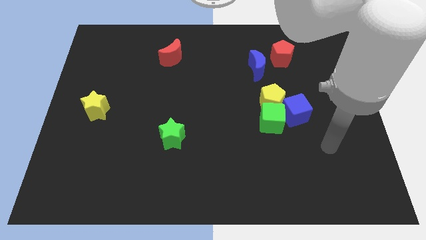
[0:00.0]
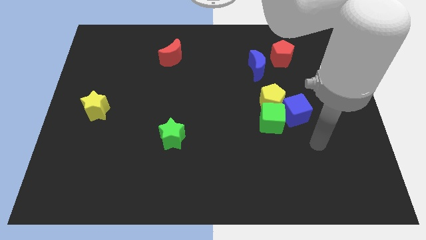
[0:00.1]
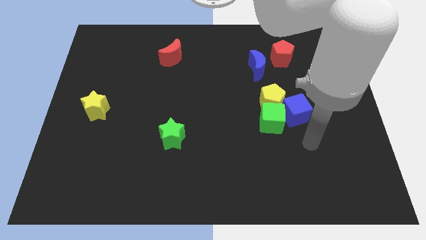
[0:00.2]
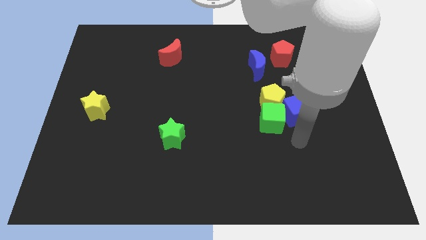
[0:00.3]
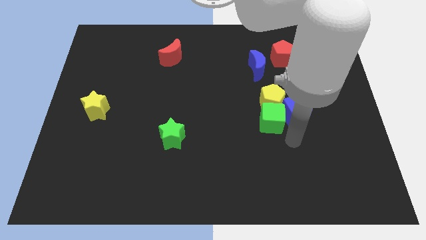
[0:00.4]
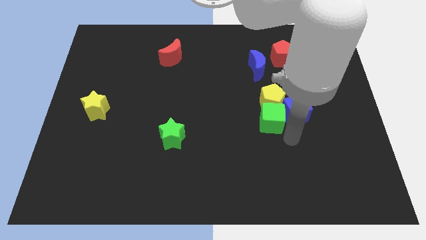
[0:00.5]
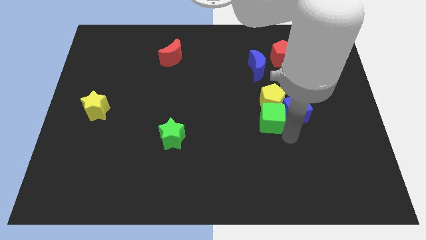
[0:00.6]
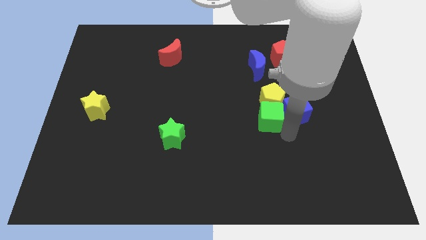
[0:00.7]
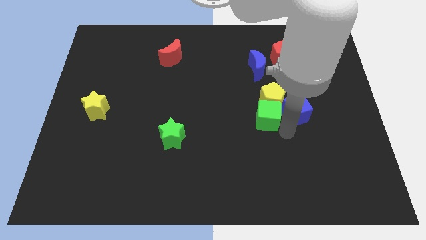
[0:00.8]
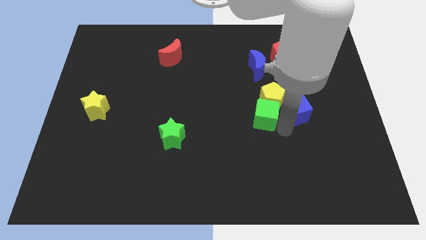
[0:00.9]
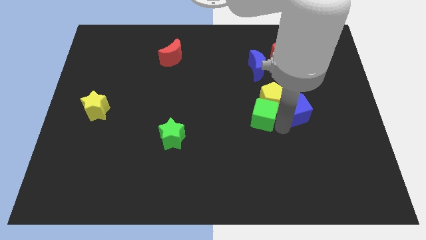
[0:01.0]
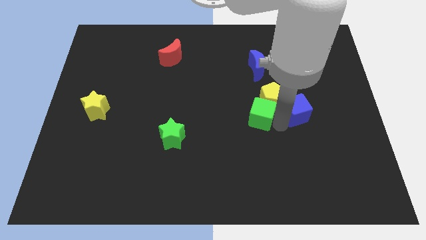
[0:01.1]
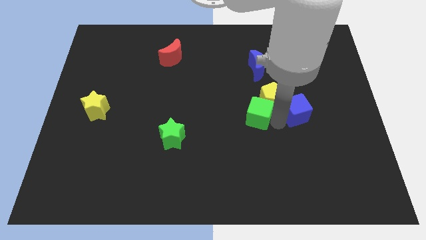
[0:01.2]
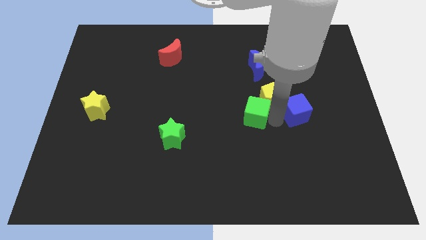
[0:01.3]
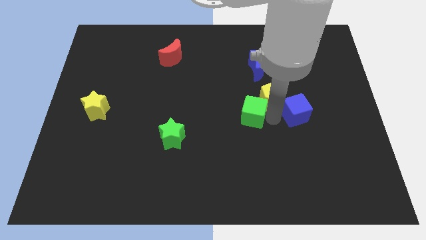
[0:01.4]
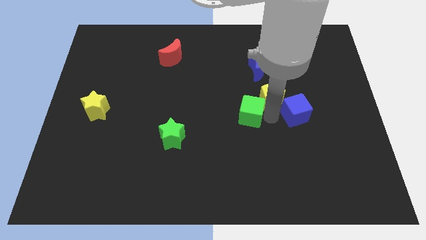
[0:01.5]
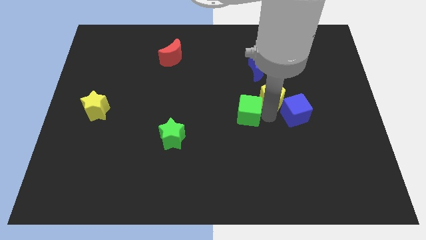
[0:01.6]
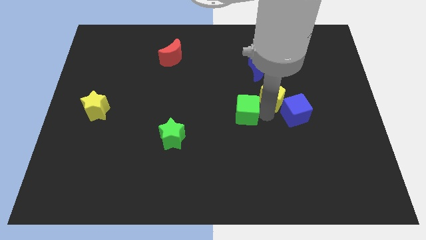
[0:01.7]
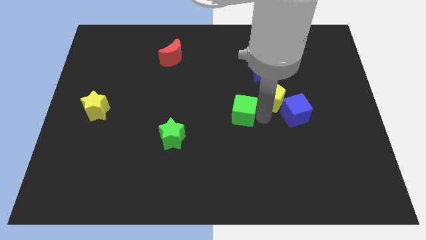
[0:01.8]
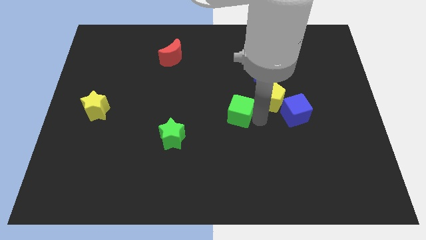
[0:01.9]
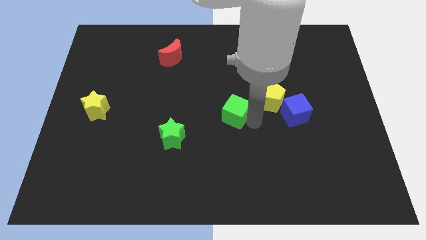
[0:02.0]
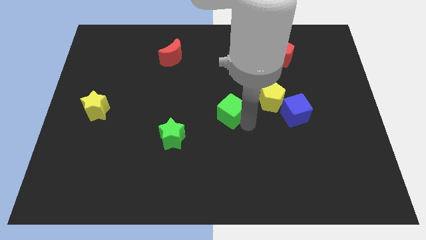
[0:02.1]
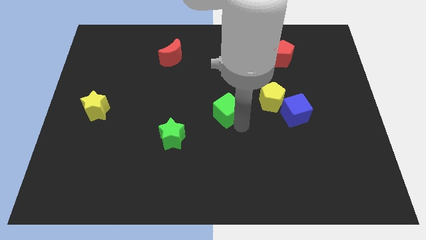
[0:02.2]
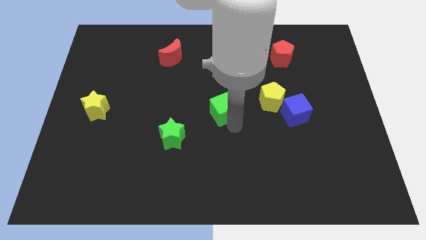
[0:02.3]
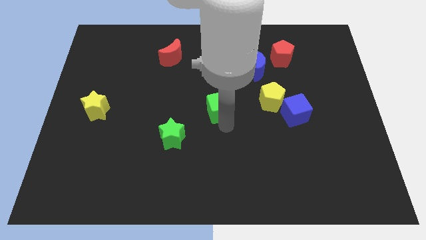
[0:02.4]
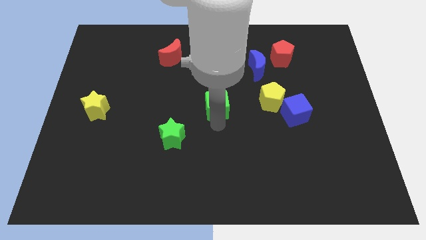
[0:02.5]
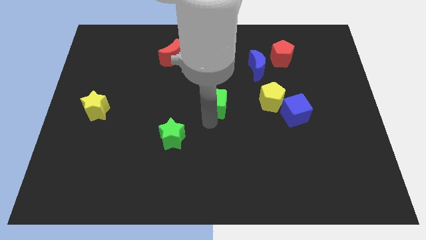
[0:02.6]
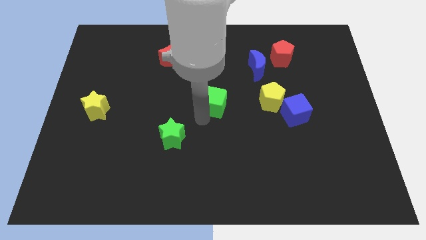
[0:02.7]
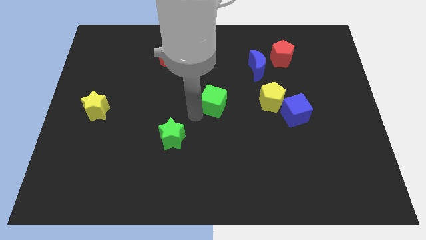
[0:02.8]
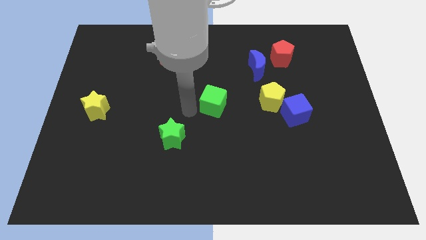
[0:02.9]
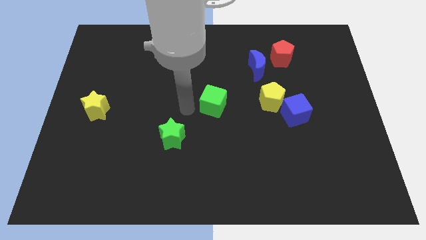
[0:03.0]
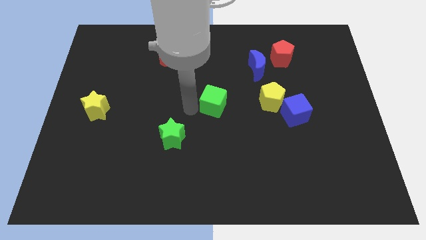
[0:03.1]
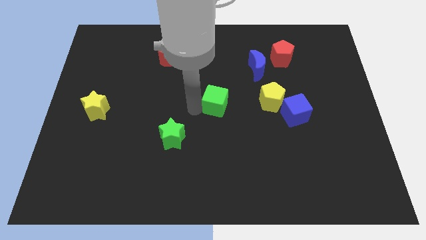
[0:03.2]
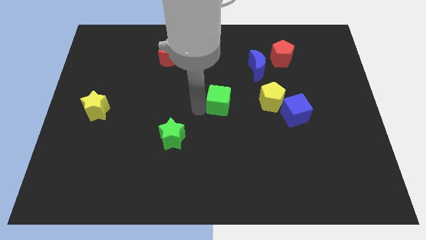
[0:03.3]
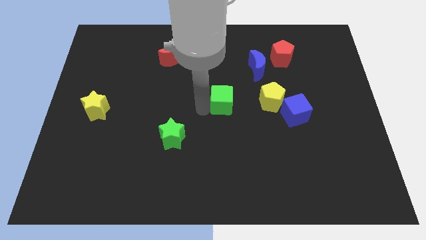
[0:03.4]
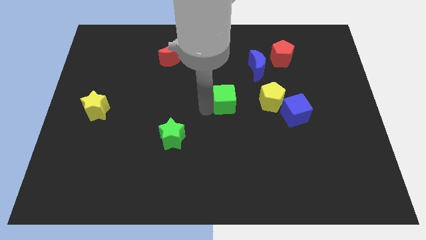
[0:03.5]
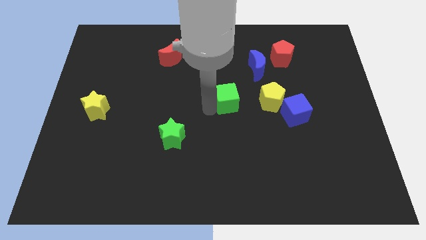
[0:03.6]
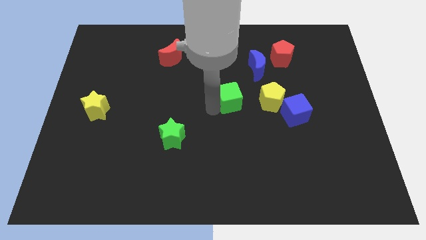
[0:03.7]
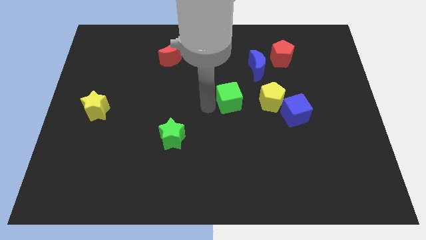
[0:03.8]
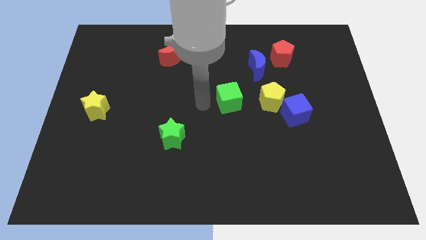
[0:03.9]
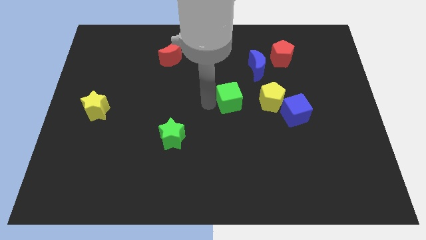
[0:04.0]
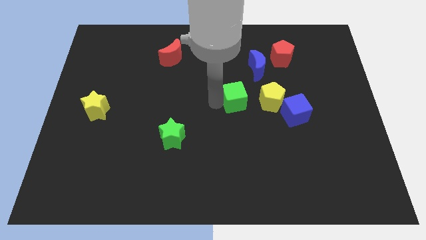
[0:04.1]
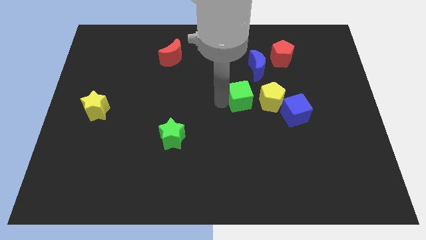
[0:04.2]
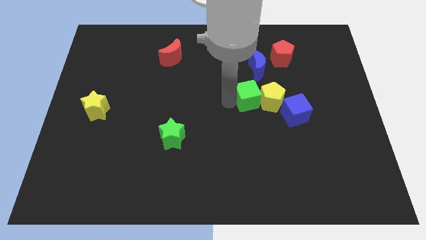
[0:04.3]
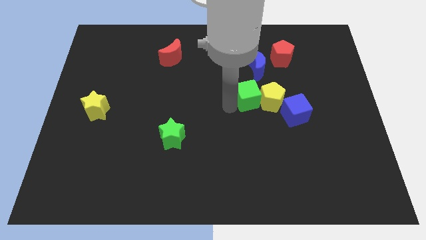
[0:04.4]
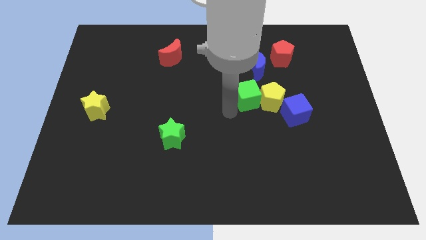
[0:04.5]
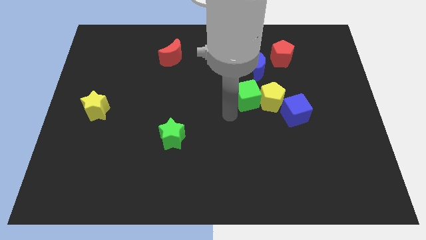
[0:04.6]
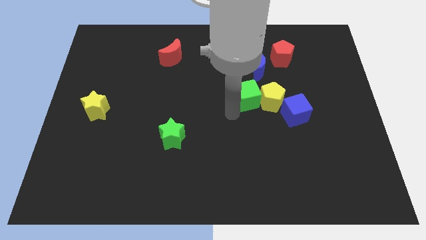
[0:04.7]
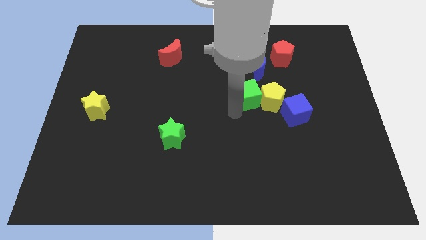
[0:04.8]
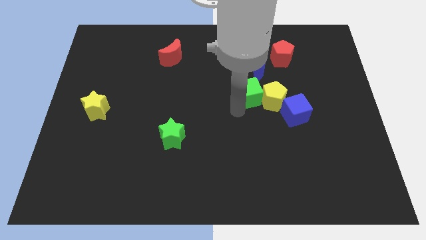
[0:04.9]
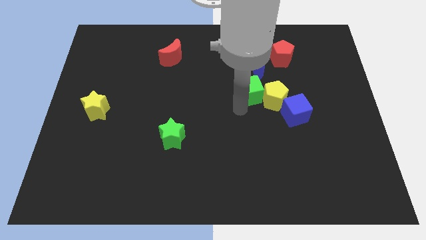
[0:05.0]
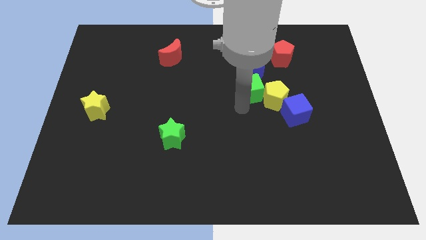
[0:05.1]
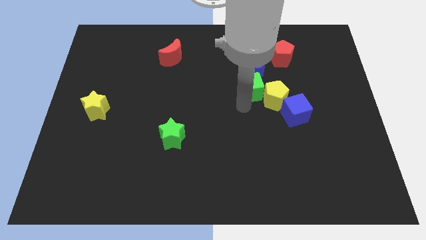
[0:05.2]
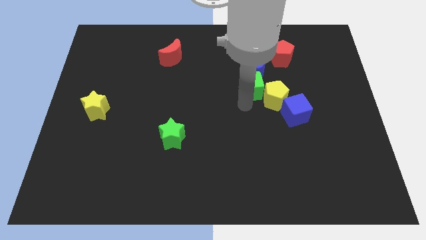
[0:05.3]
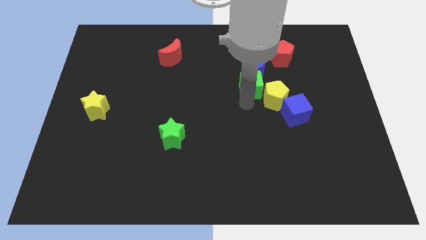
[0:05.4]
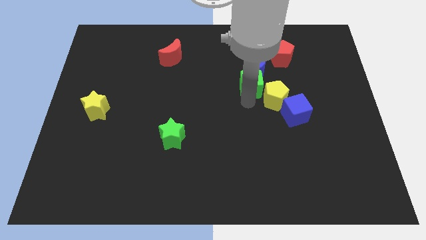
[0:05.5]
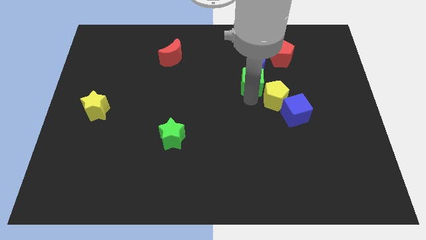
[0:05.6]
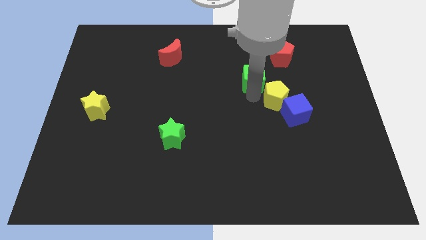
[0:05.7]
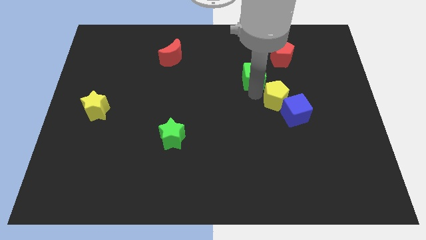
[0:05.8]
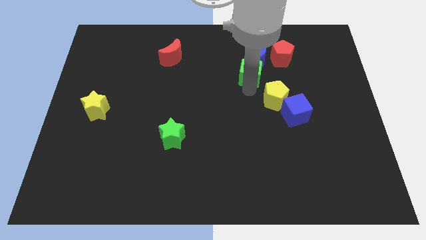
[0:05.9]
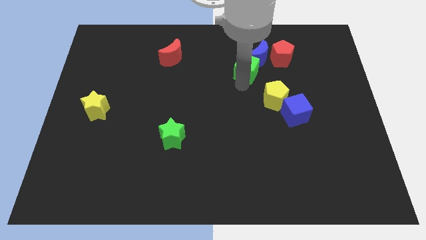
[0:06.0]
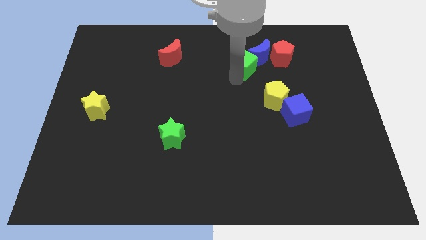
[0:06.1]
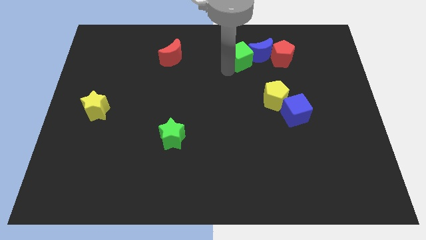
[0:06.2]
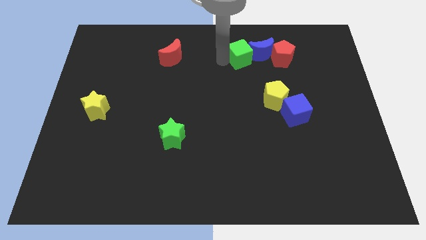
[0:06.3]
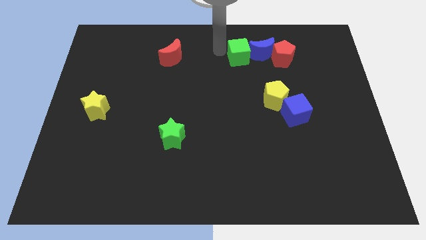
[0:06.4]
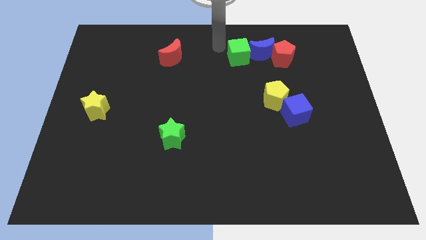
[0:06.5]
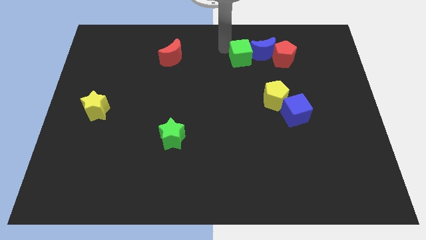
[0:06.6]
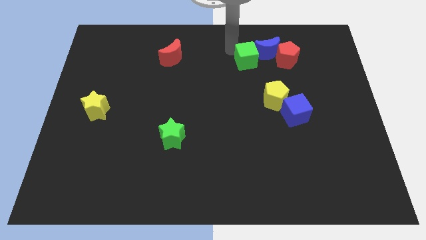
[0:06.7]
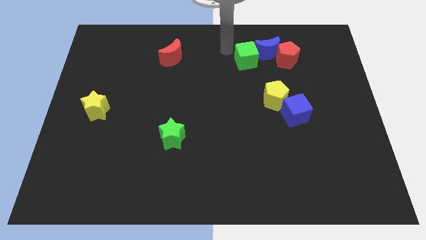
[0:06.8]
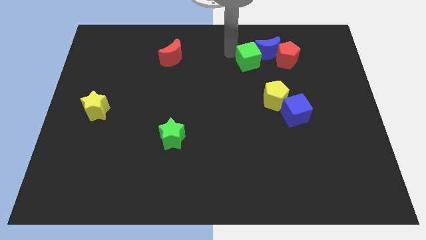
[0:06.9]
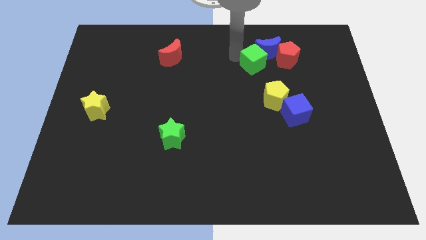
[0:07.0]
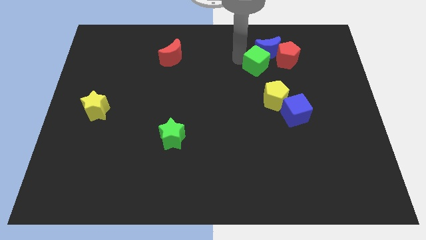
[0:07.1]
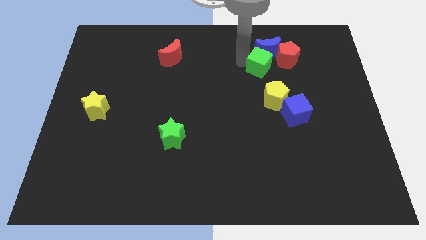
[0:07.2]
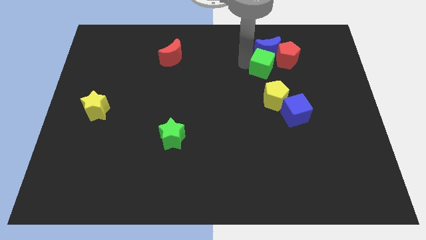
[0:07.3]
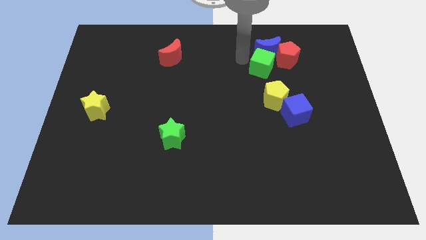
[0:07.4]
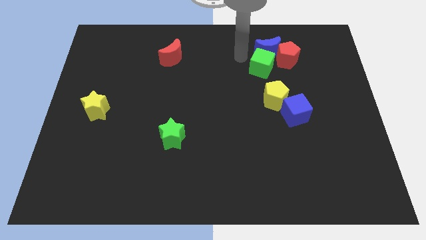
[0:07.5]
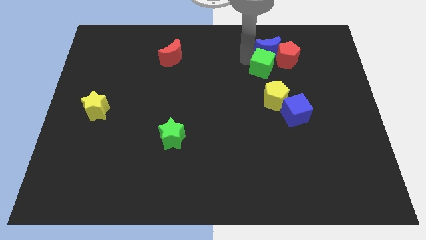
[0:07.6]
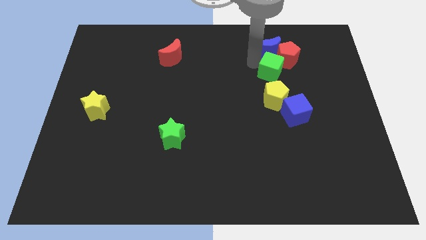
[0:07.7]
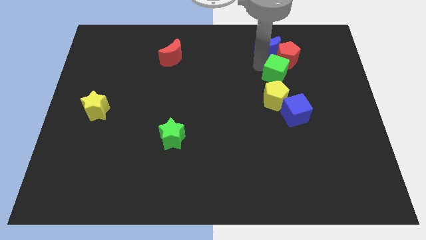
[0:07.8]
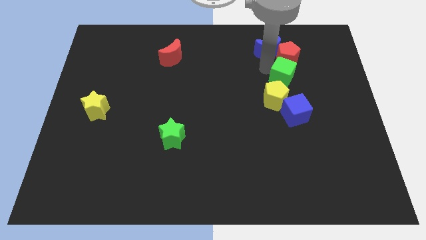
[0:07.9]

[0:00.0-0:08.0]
put the green cube to the top right of the yellow pentagon
